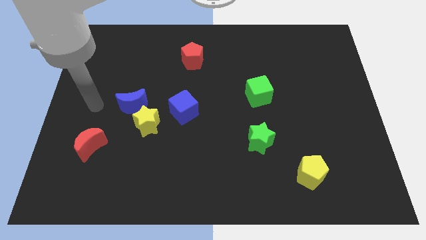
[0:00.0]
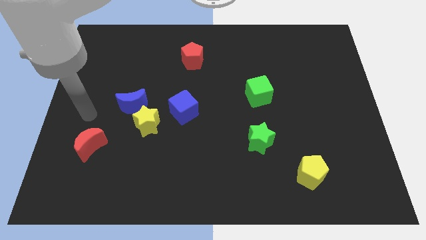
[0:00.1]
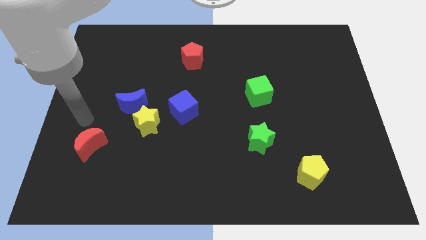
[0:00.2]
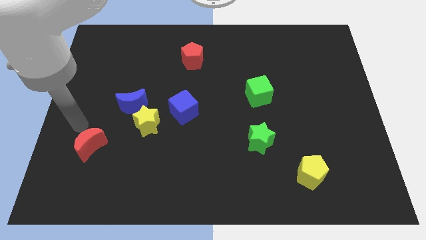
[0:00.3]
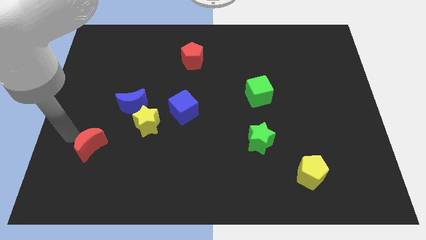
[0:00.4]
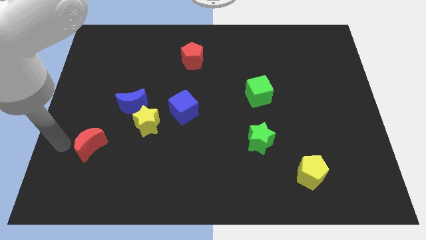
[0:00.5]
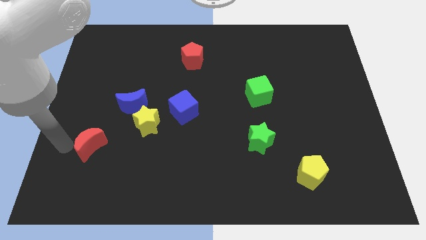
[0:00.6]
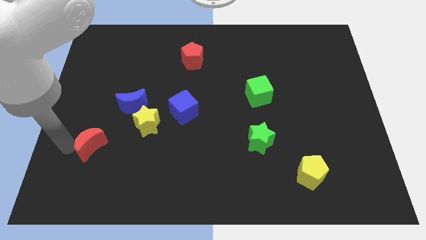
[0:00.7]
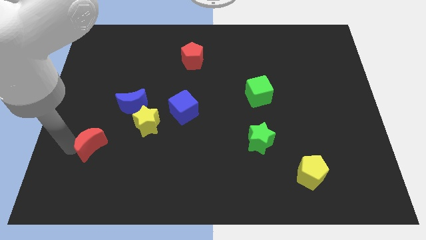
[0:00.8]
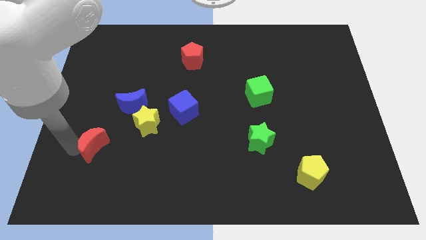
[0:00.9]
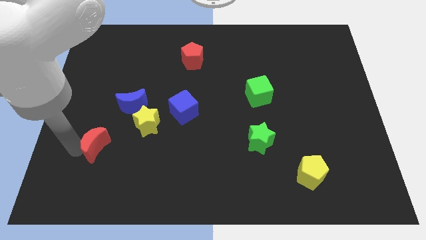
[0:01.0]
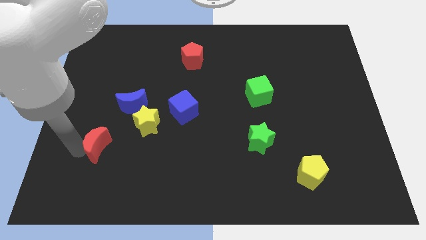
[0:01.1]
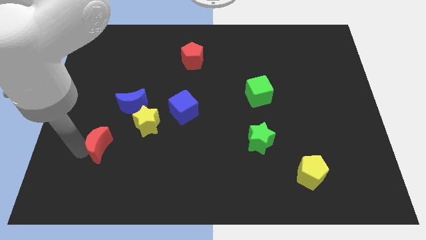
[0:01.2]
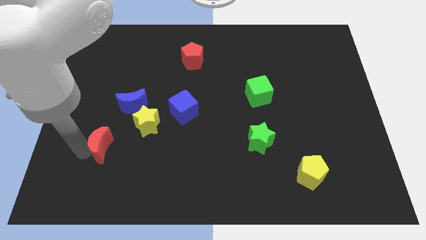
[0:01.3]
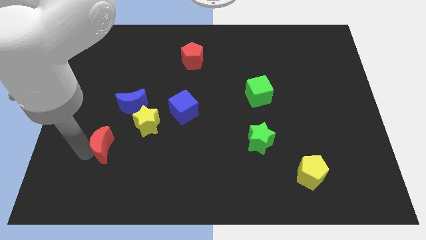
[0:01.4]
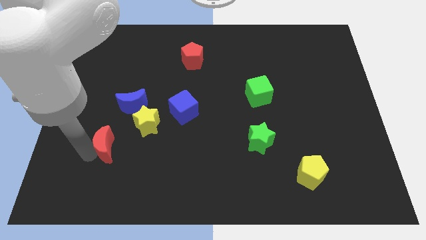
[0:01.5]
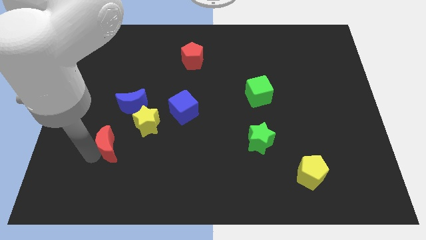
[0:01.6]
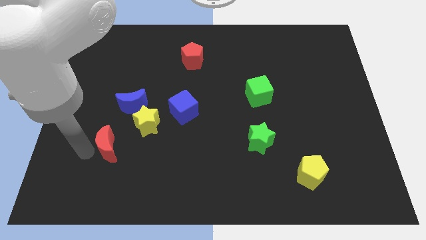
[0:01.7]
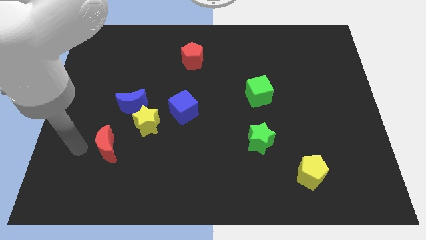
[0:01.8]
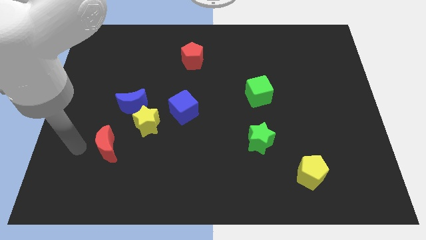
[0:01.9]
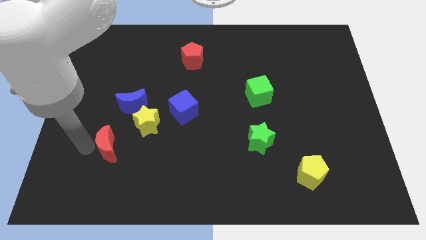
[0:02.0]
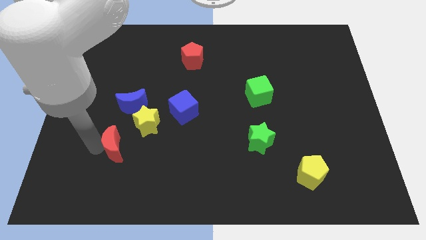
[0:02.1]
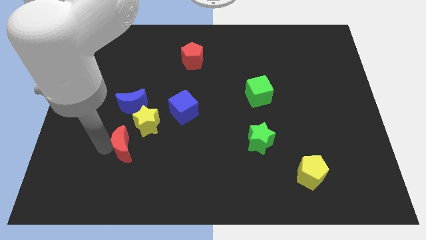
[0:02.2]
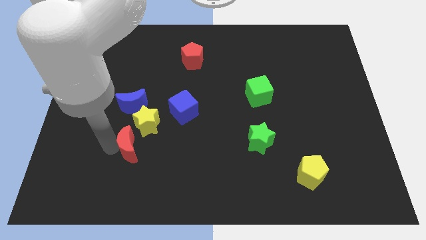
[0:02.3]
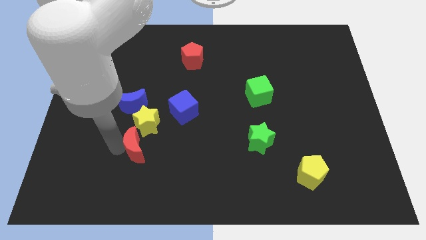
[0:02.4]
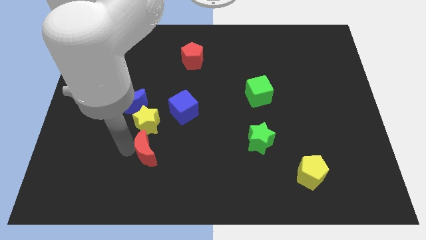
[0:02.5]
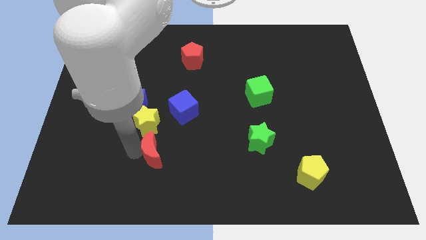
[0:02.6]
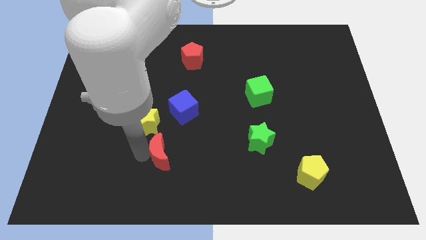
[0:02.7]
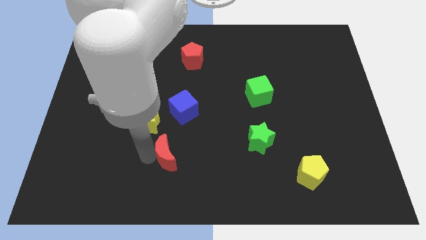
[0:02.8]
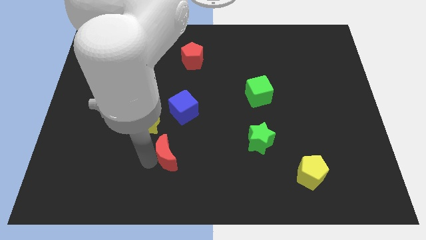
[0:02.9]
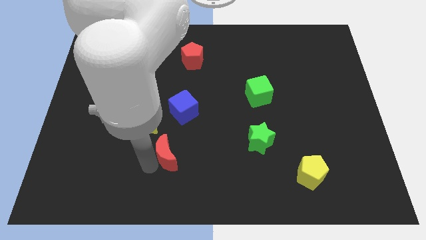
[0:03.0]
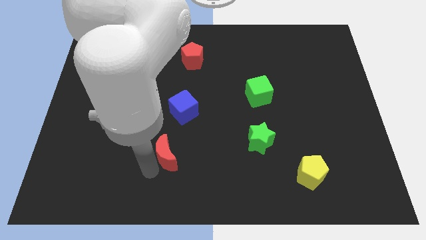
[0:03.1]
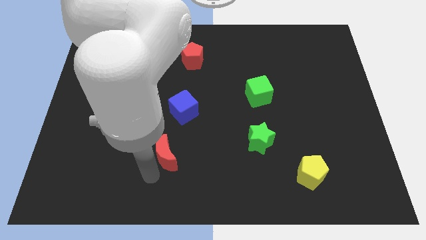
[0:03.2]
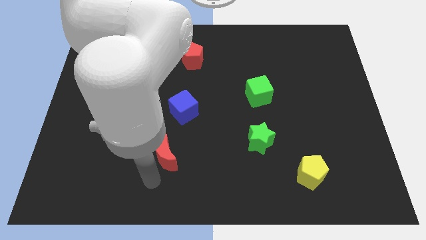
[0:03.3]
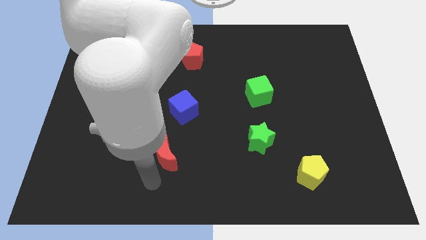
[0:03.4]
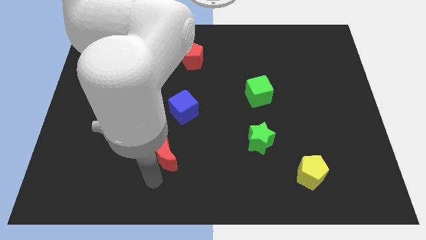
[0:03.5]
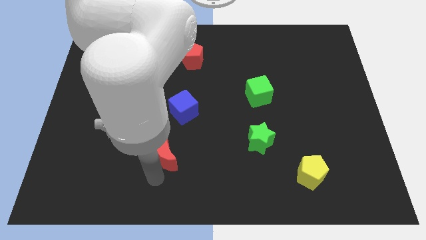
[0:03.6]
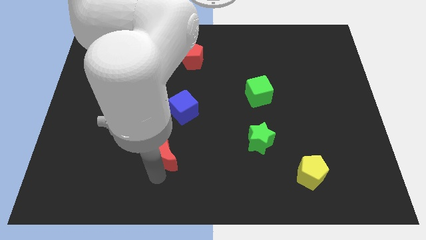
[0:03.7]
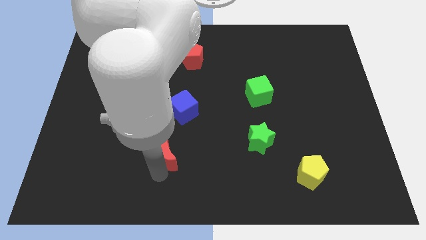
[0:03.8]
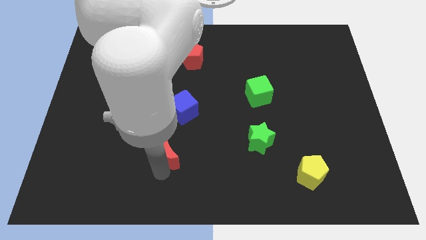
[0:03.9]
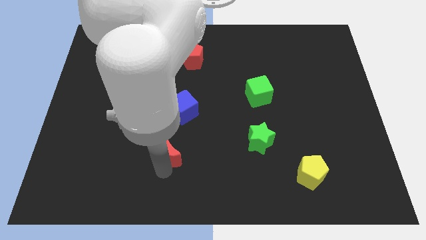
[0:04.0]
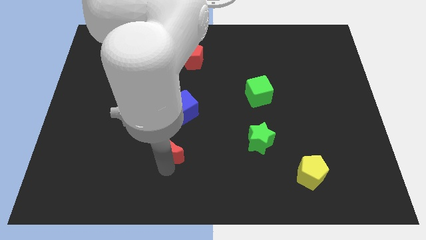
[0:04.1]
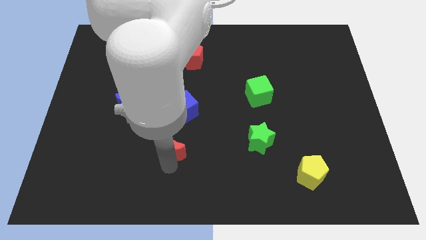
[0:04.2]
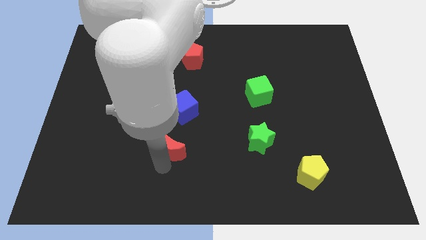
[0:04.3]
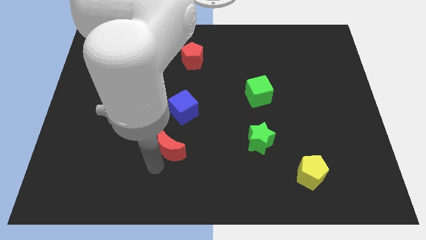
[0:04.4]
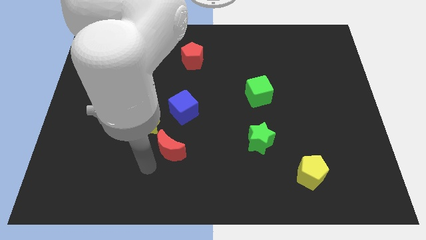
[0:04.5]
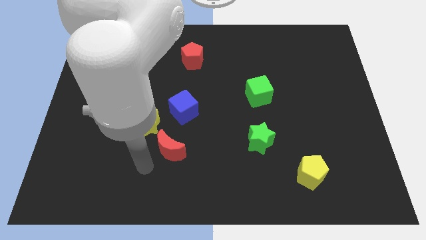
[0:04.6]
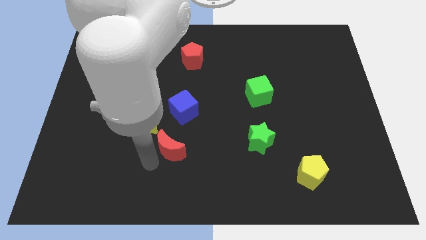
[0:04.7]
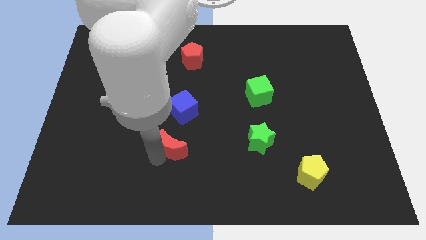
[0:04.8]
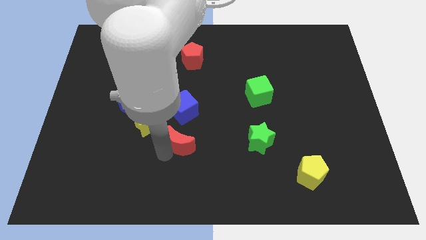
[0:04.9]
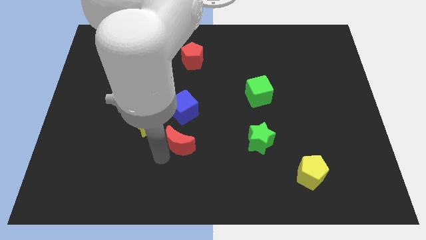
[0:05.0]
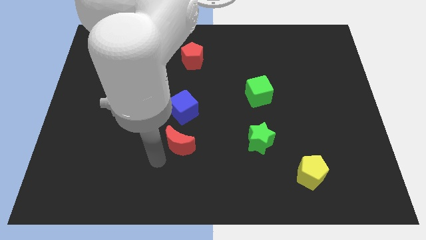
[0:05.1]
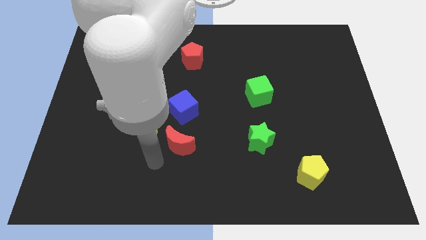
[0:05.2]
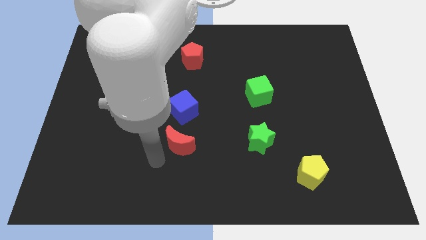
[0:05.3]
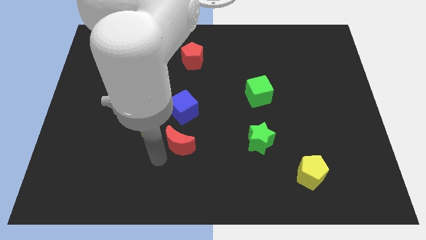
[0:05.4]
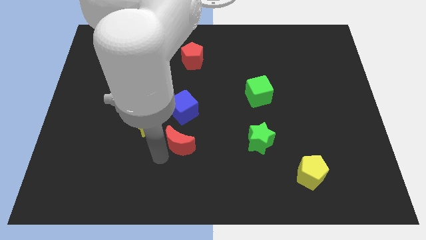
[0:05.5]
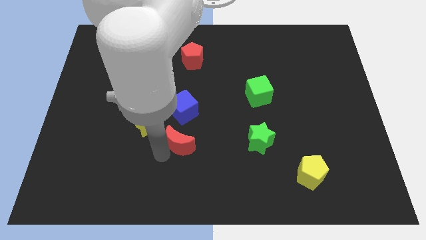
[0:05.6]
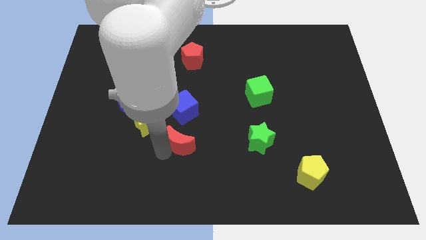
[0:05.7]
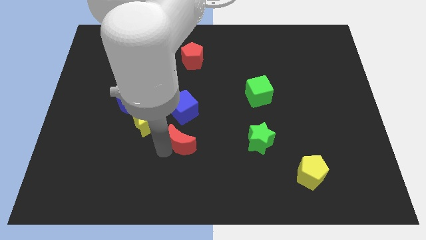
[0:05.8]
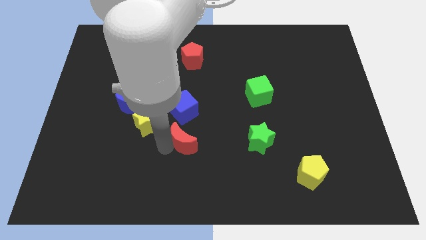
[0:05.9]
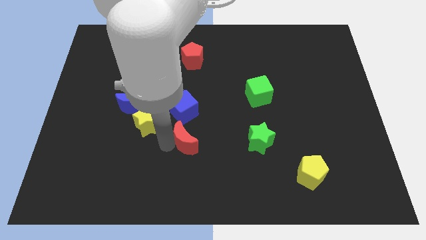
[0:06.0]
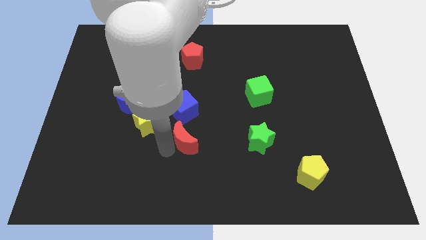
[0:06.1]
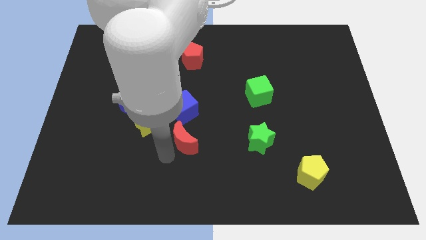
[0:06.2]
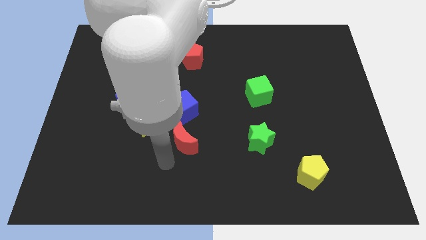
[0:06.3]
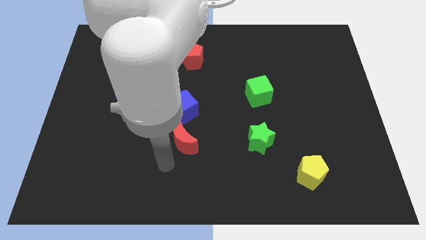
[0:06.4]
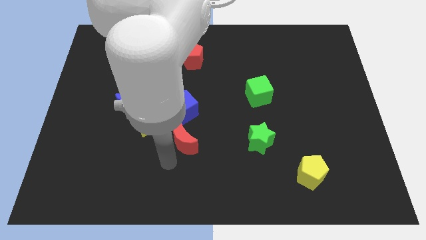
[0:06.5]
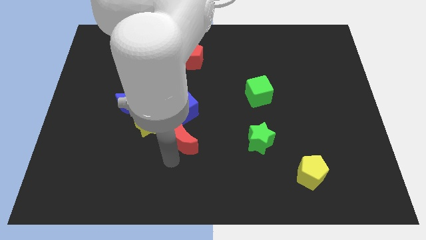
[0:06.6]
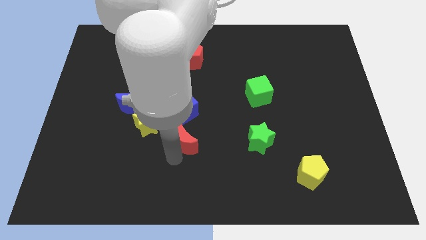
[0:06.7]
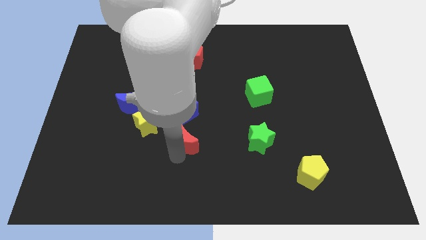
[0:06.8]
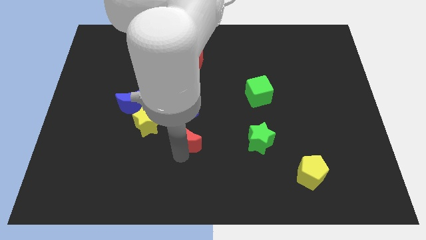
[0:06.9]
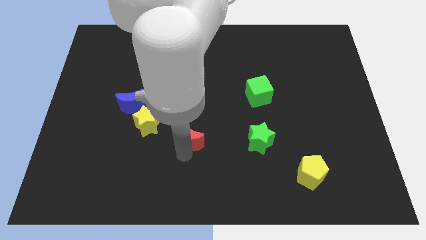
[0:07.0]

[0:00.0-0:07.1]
slide the red moon to the middle of the board

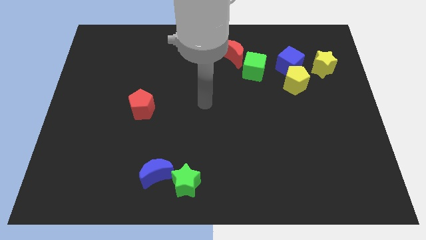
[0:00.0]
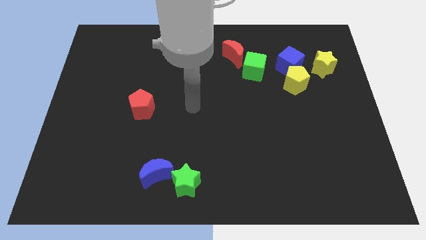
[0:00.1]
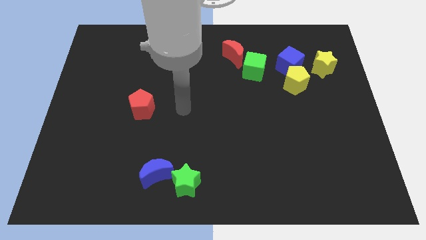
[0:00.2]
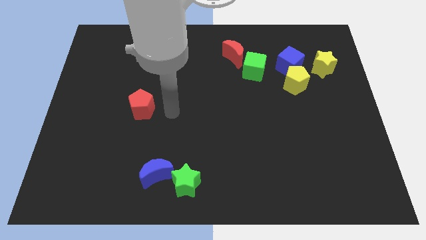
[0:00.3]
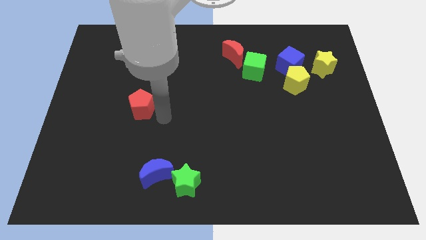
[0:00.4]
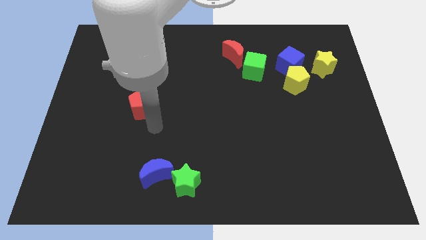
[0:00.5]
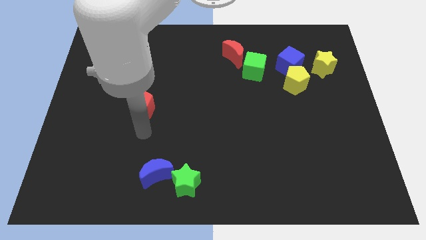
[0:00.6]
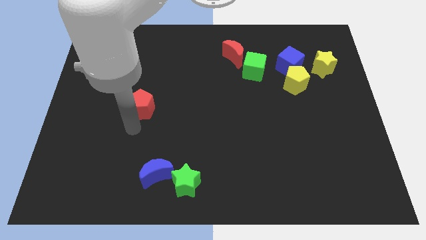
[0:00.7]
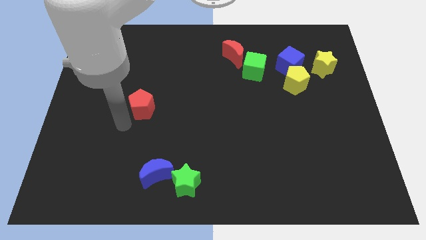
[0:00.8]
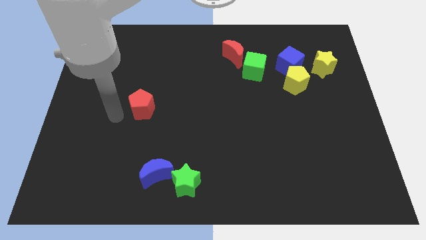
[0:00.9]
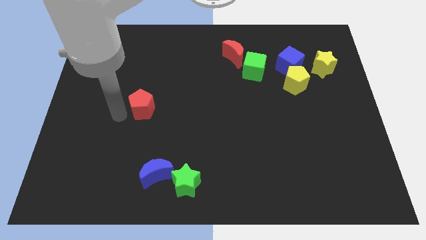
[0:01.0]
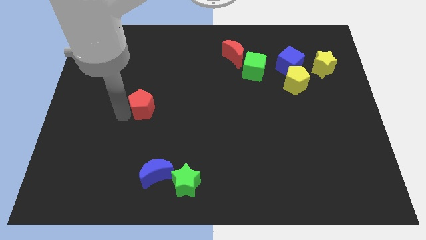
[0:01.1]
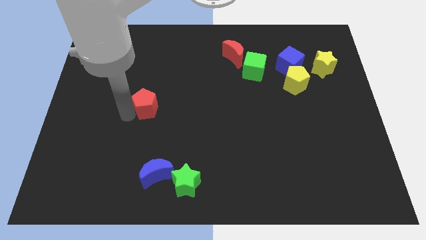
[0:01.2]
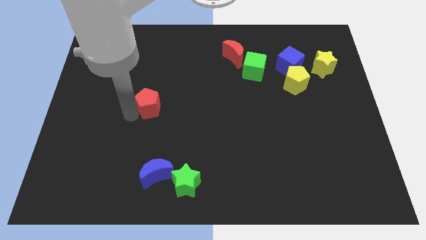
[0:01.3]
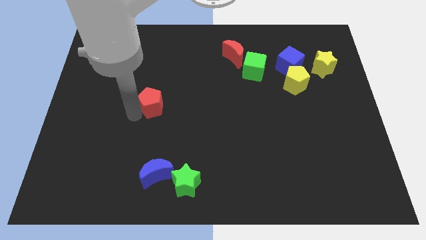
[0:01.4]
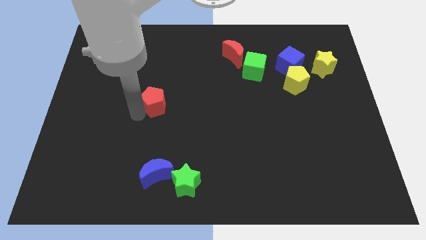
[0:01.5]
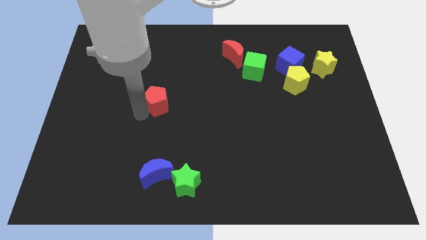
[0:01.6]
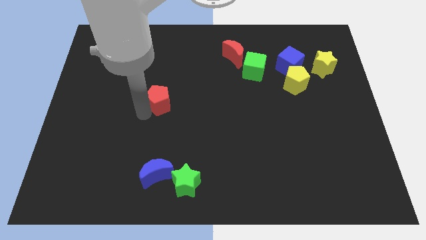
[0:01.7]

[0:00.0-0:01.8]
slide the red pentagon to the middle of the board
